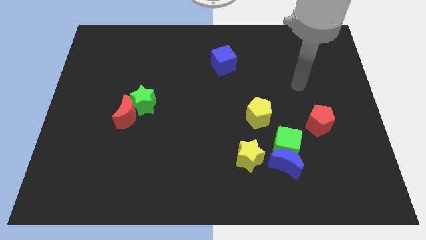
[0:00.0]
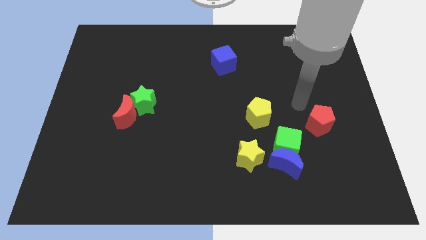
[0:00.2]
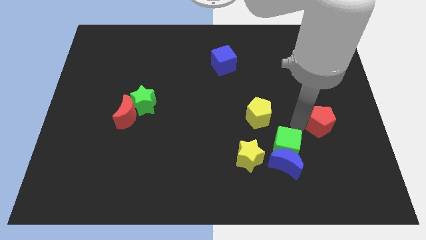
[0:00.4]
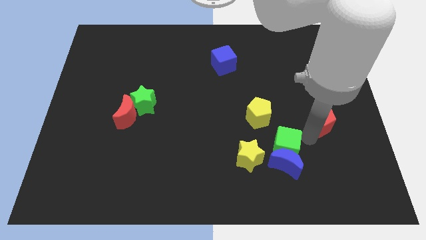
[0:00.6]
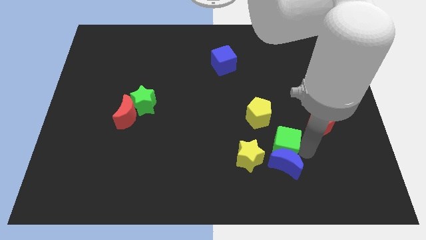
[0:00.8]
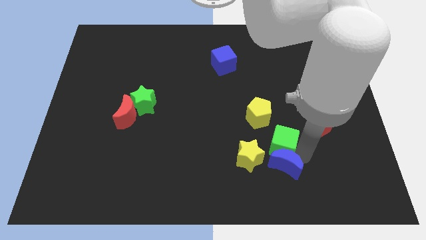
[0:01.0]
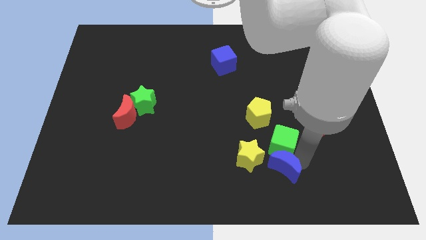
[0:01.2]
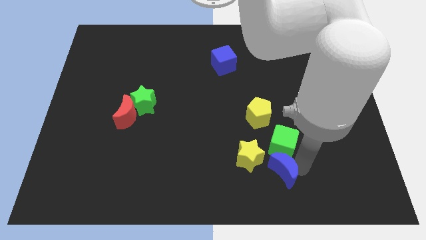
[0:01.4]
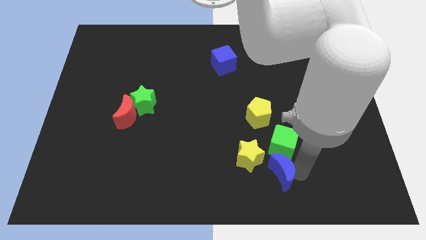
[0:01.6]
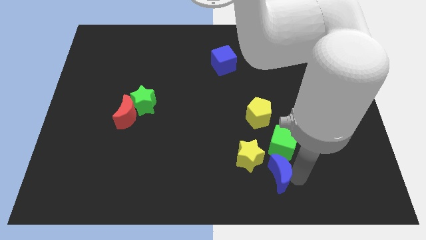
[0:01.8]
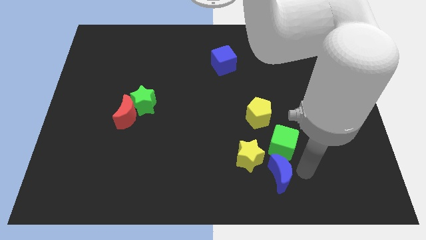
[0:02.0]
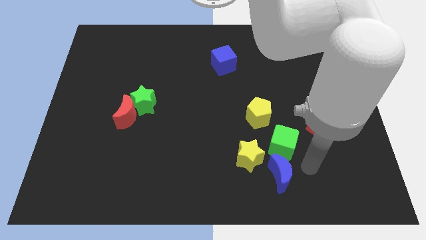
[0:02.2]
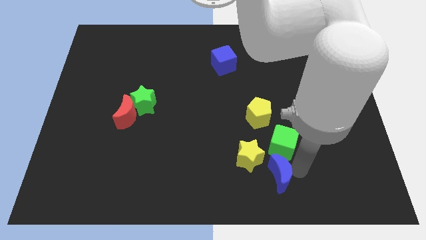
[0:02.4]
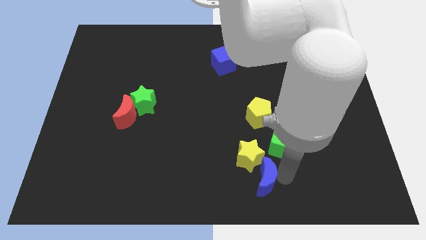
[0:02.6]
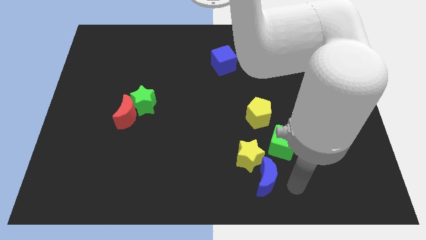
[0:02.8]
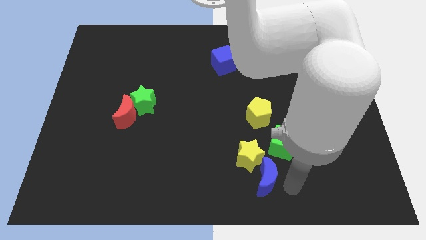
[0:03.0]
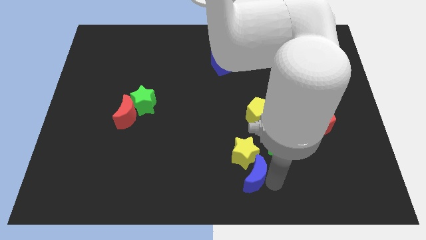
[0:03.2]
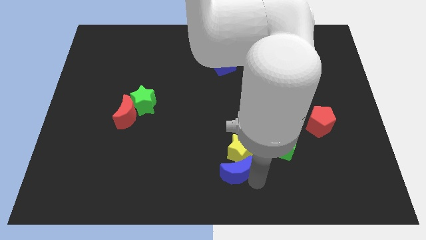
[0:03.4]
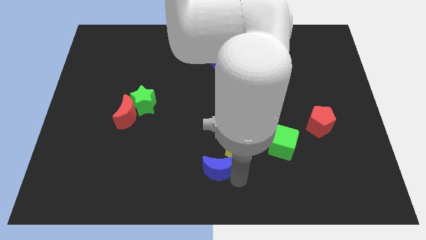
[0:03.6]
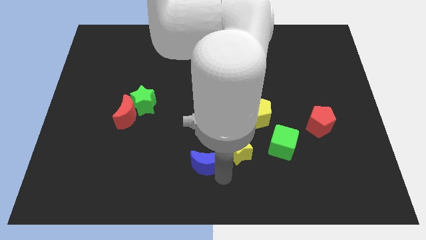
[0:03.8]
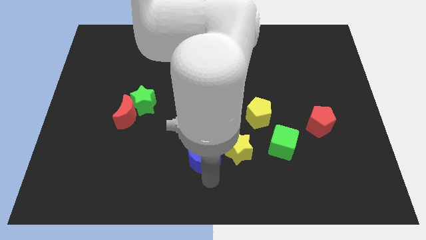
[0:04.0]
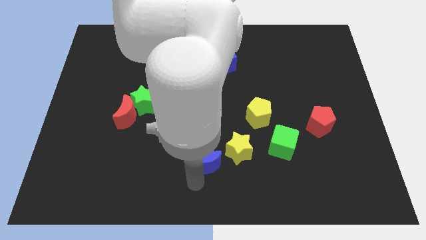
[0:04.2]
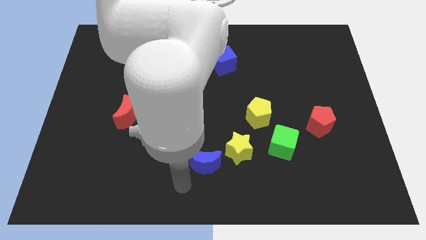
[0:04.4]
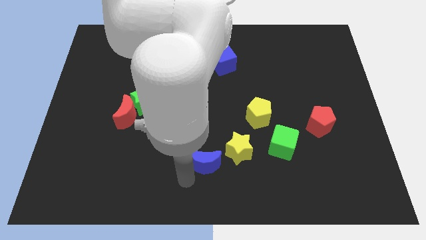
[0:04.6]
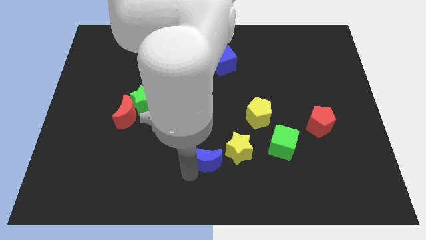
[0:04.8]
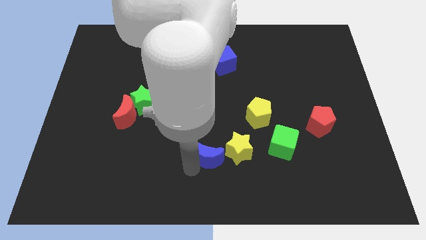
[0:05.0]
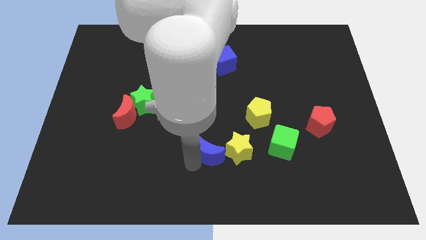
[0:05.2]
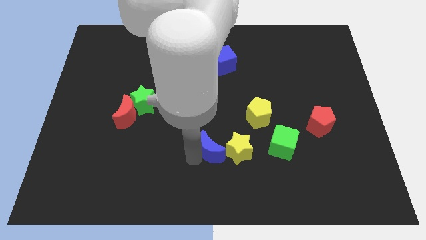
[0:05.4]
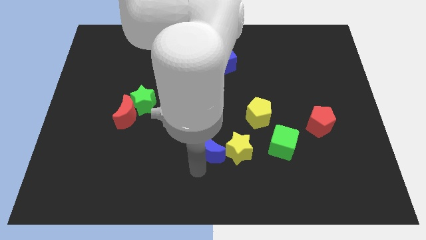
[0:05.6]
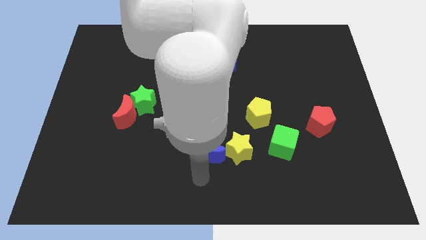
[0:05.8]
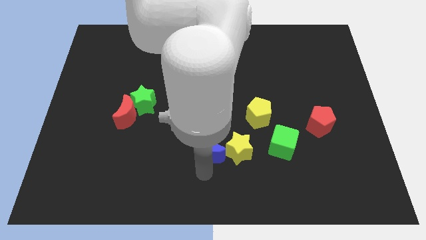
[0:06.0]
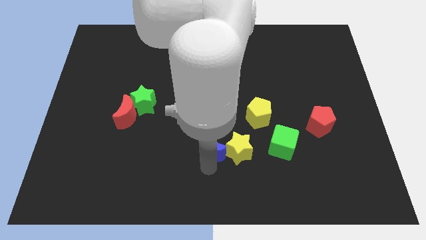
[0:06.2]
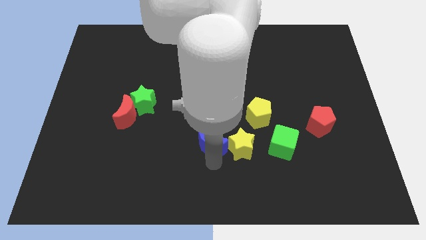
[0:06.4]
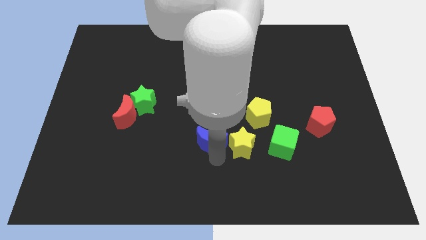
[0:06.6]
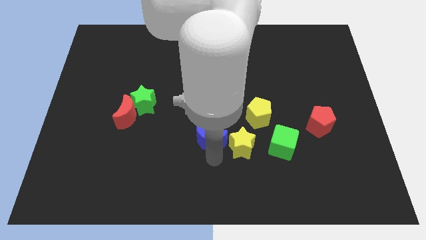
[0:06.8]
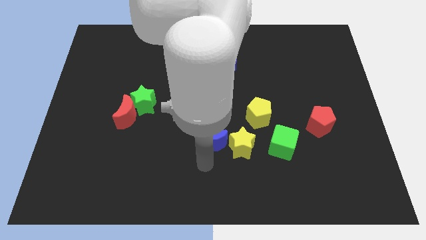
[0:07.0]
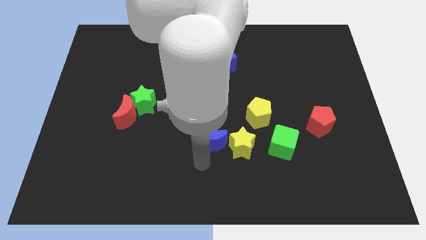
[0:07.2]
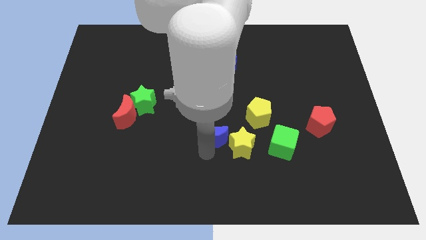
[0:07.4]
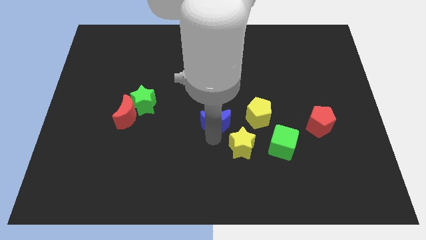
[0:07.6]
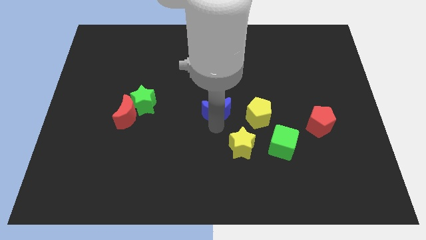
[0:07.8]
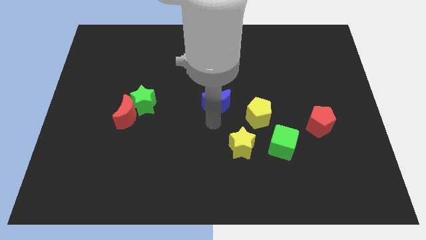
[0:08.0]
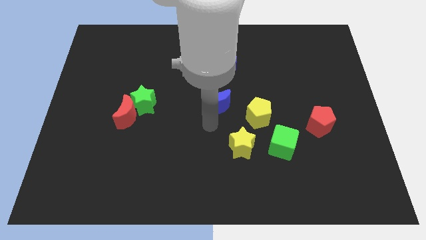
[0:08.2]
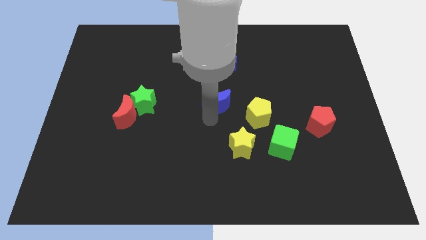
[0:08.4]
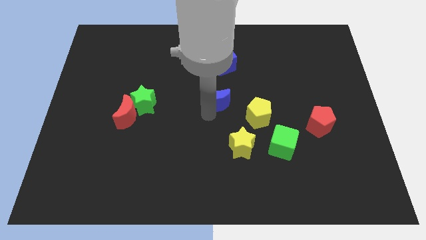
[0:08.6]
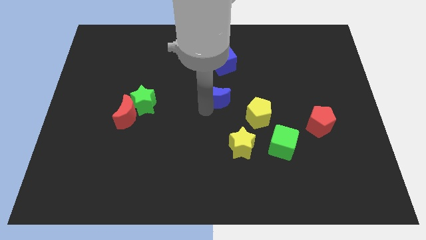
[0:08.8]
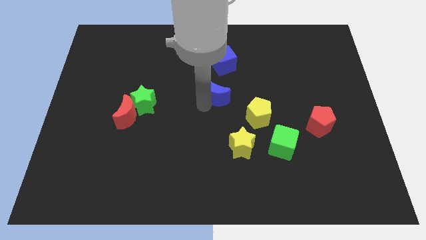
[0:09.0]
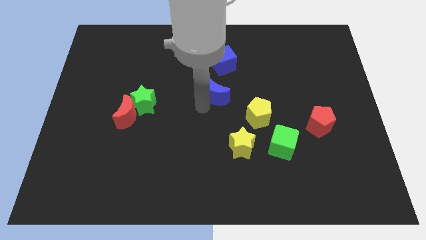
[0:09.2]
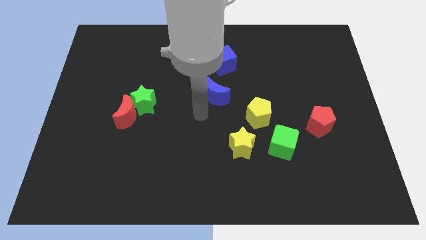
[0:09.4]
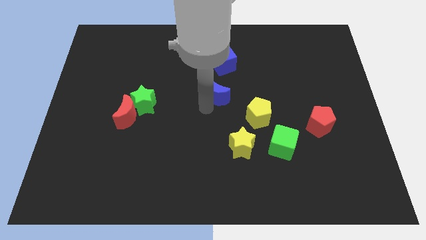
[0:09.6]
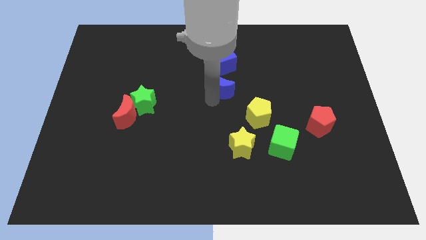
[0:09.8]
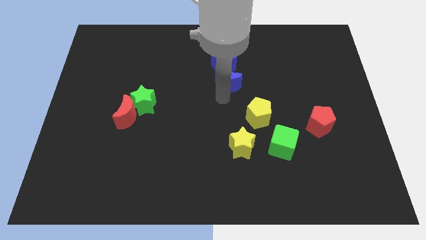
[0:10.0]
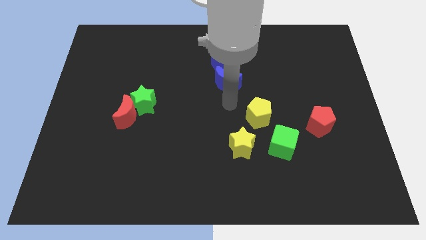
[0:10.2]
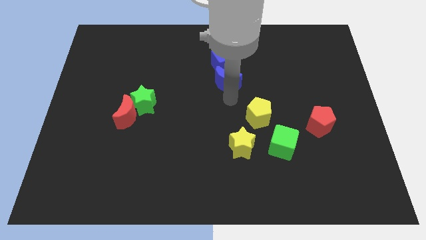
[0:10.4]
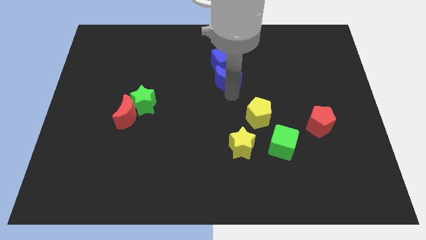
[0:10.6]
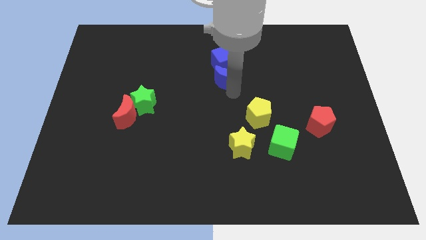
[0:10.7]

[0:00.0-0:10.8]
slide the blue moon towards the blue cube

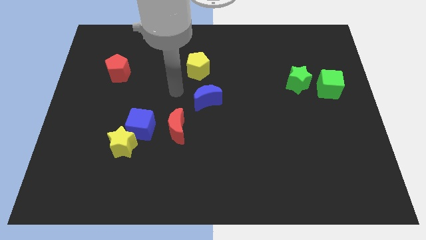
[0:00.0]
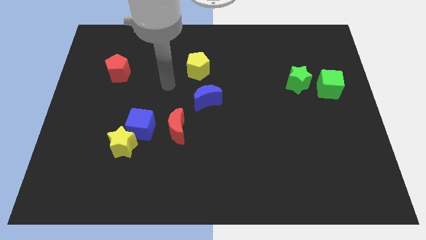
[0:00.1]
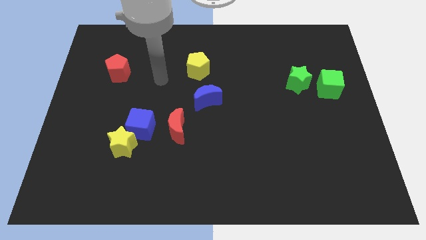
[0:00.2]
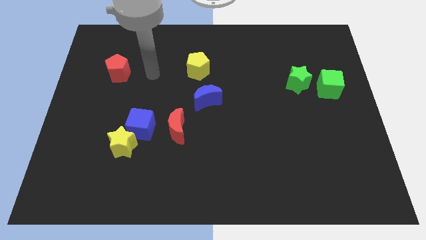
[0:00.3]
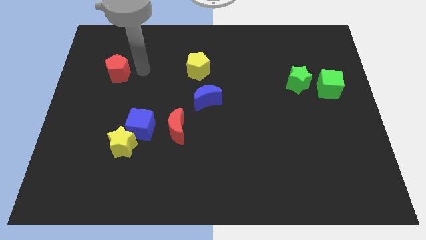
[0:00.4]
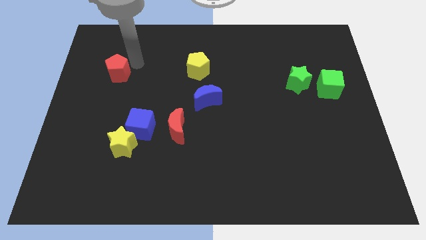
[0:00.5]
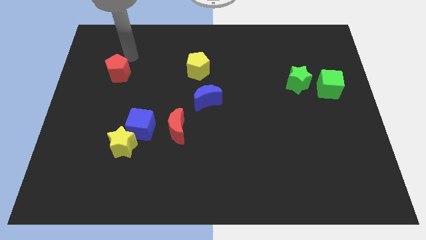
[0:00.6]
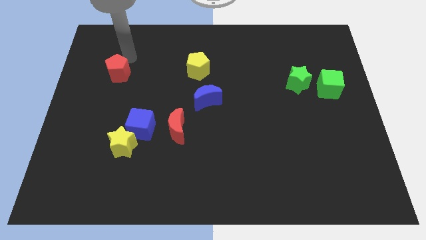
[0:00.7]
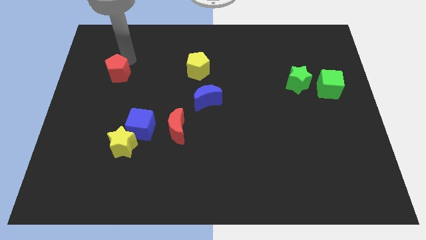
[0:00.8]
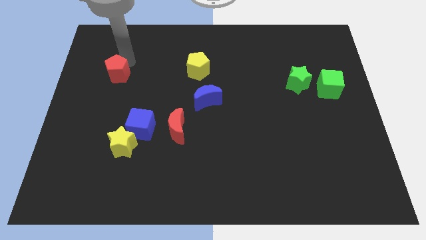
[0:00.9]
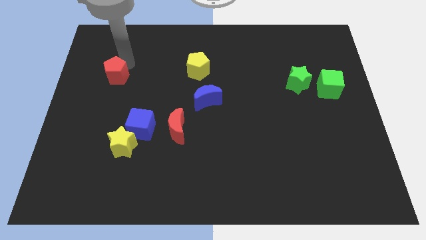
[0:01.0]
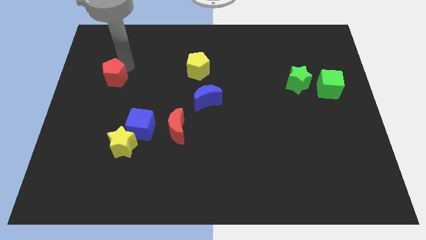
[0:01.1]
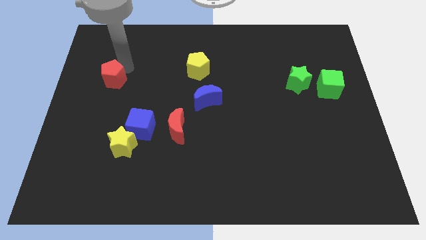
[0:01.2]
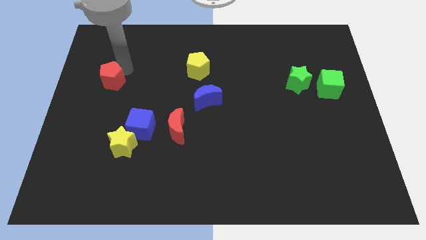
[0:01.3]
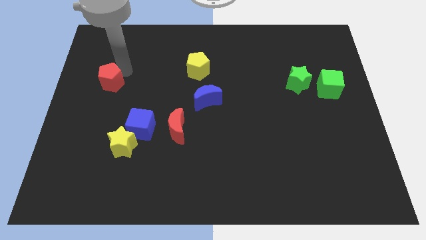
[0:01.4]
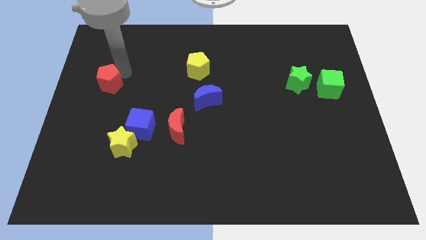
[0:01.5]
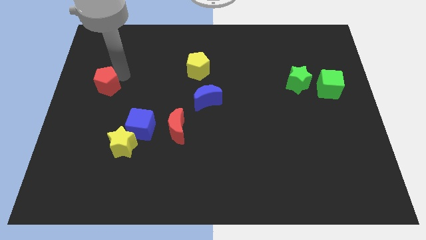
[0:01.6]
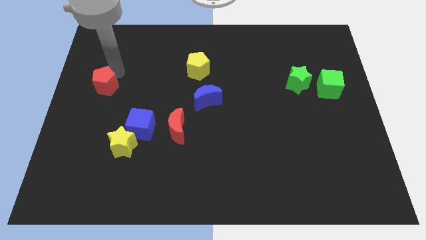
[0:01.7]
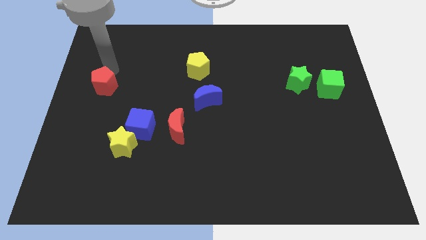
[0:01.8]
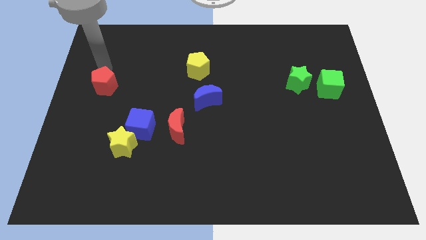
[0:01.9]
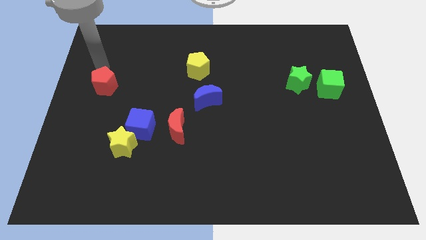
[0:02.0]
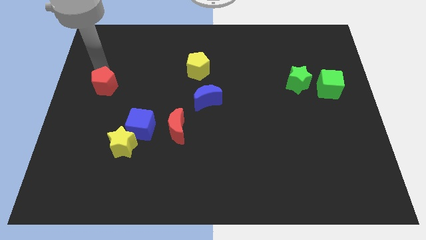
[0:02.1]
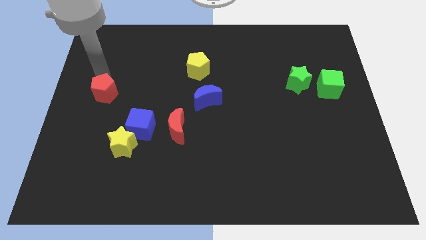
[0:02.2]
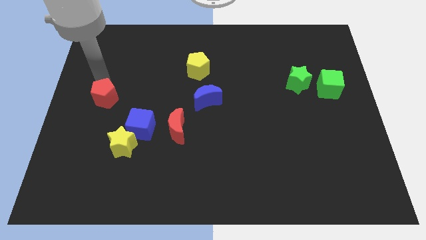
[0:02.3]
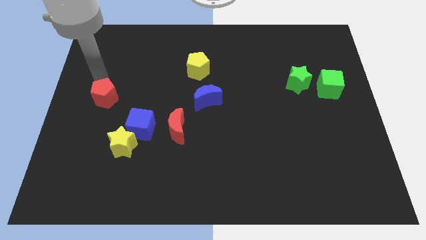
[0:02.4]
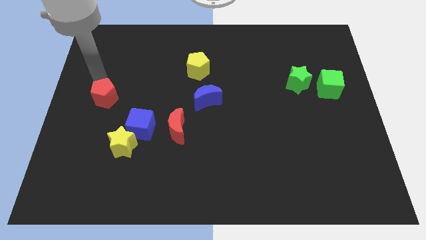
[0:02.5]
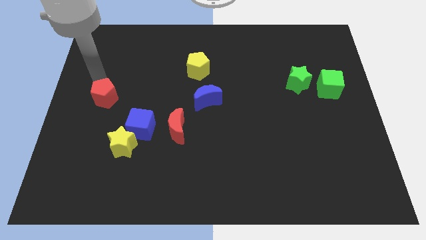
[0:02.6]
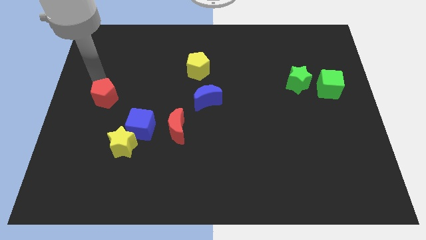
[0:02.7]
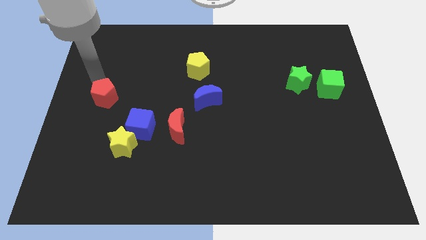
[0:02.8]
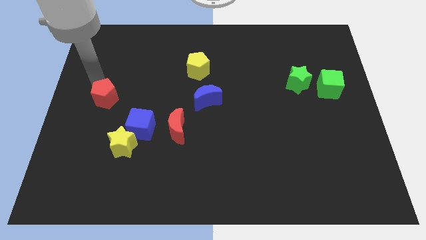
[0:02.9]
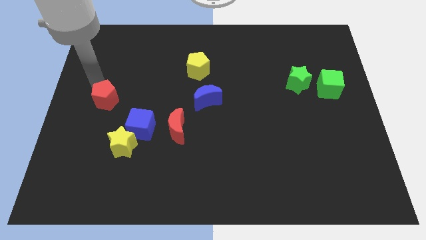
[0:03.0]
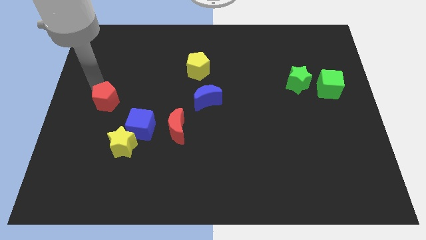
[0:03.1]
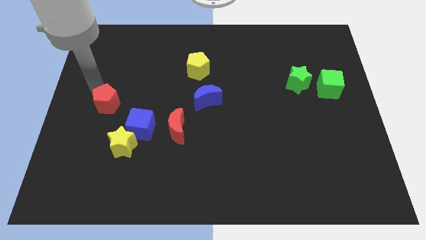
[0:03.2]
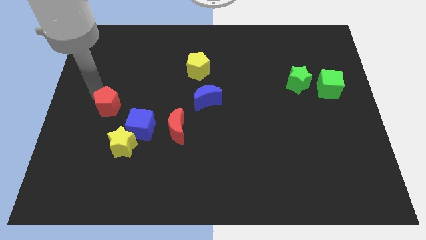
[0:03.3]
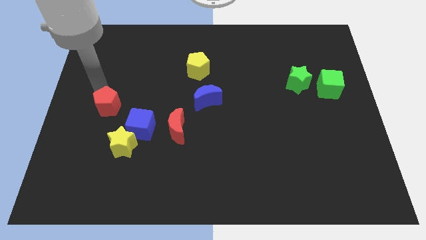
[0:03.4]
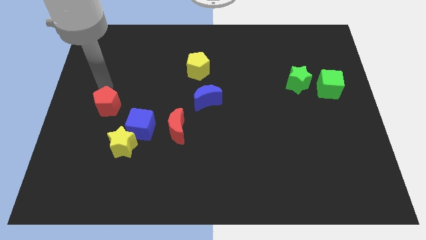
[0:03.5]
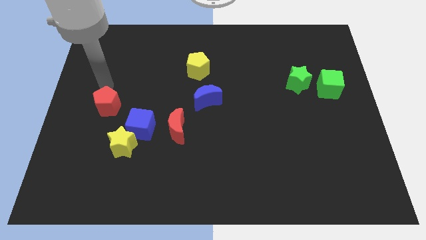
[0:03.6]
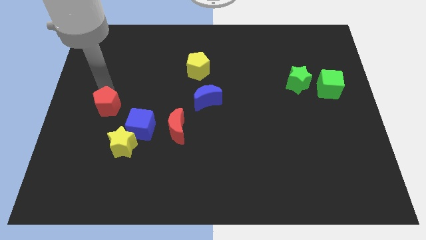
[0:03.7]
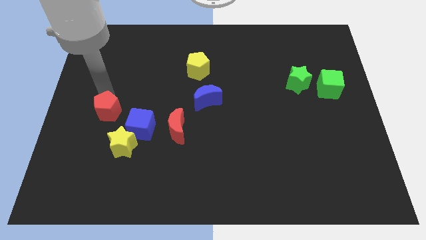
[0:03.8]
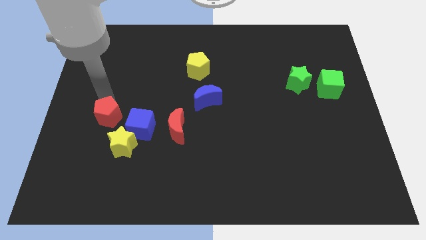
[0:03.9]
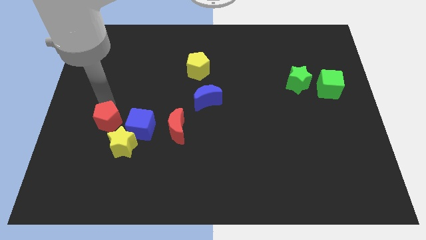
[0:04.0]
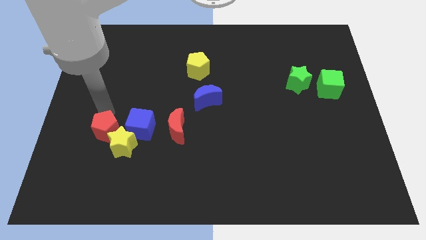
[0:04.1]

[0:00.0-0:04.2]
put the red pentagon towards the yellow star
